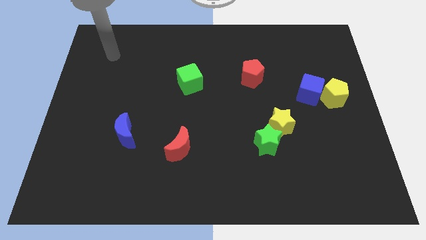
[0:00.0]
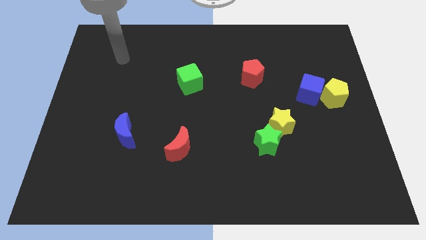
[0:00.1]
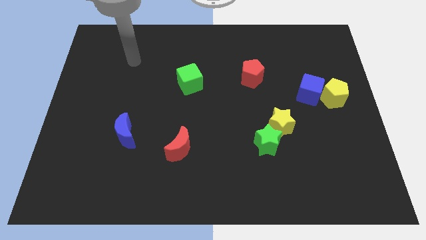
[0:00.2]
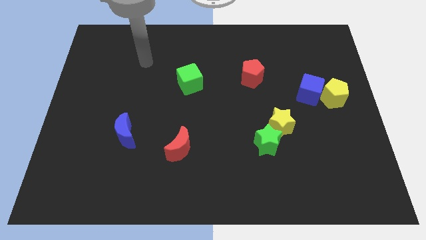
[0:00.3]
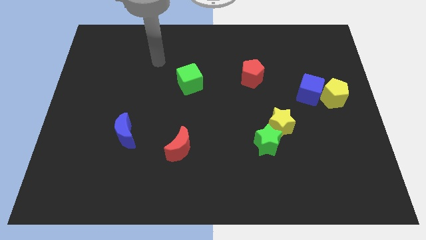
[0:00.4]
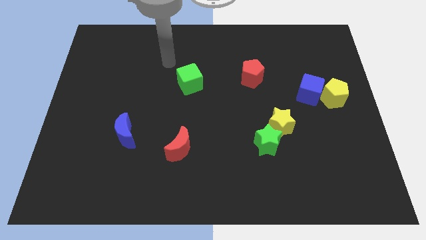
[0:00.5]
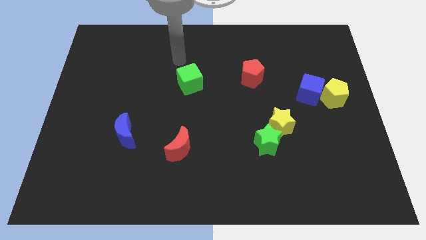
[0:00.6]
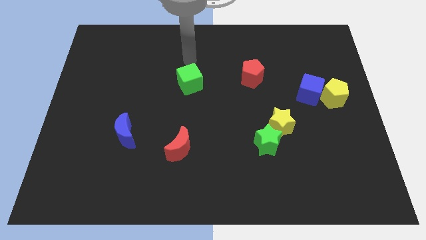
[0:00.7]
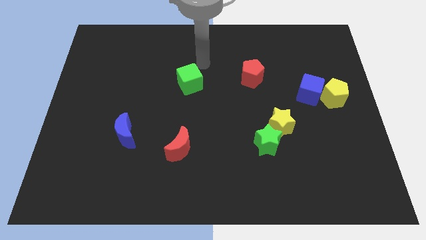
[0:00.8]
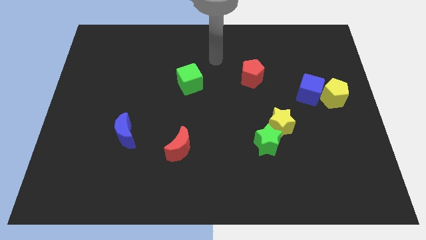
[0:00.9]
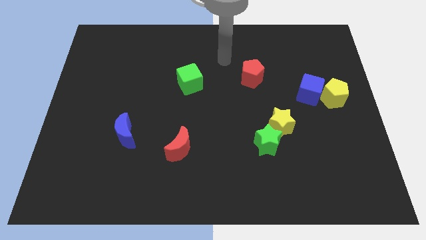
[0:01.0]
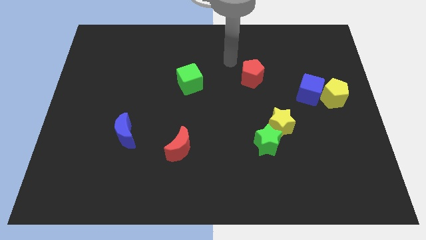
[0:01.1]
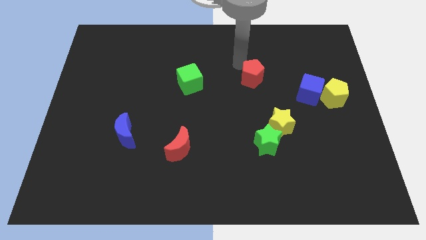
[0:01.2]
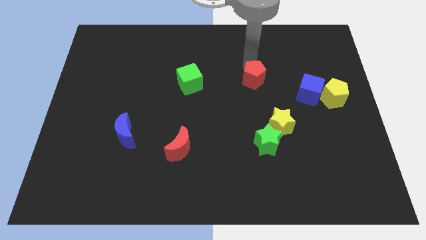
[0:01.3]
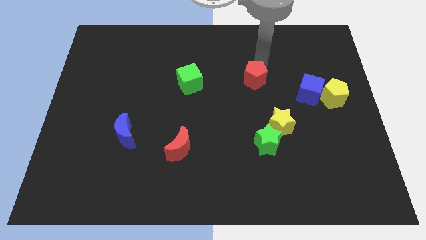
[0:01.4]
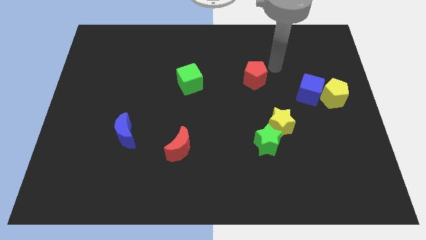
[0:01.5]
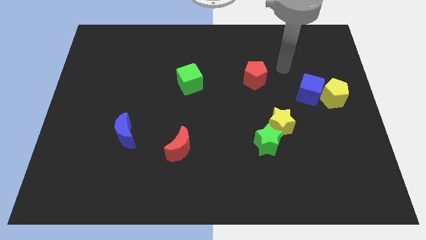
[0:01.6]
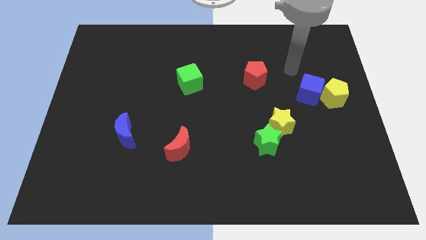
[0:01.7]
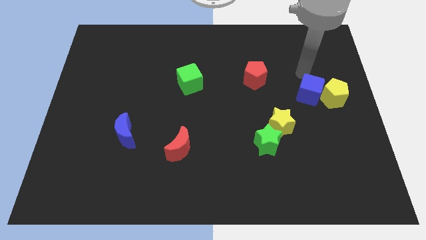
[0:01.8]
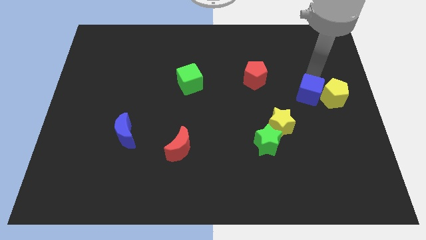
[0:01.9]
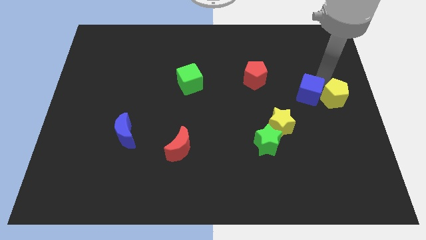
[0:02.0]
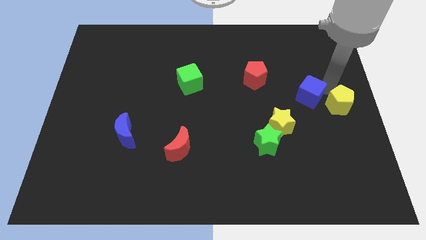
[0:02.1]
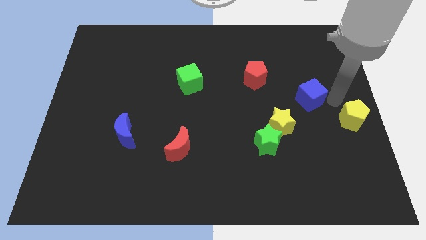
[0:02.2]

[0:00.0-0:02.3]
pull the blue cube apart from the yellow pentagon

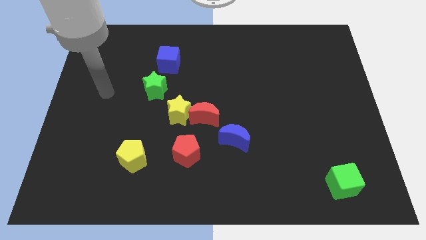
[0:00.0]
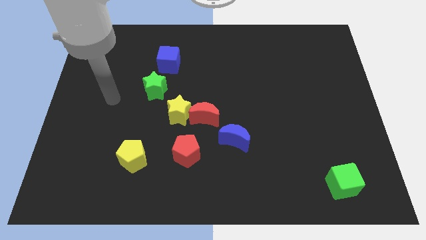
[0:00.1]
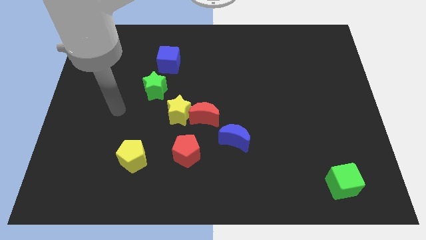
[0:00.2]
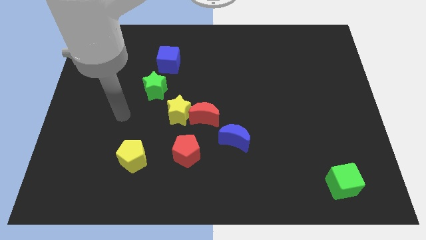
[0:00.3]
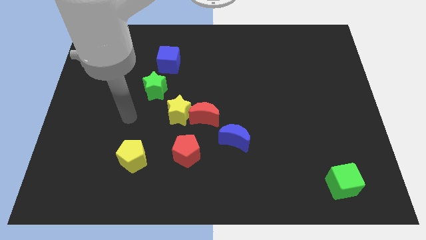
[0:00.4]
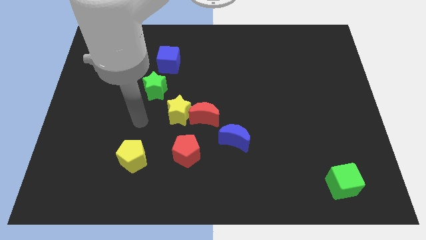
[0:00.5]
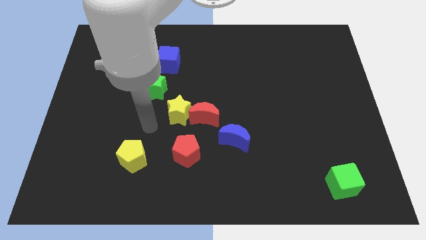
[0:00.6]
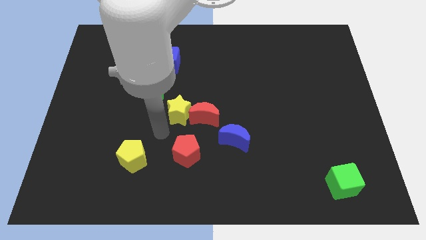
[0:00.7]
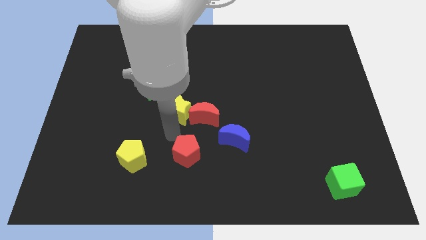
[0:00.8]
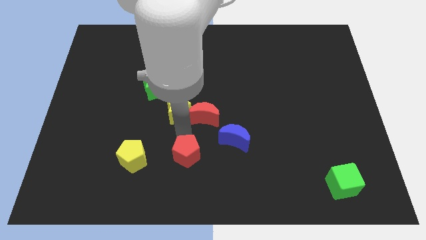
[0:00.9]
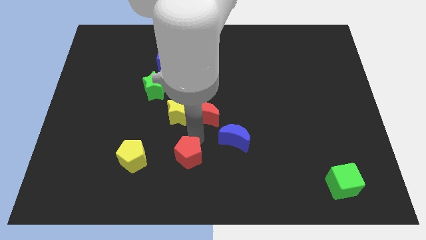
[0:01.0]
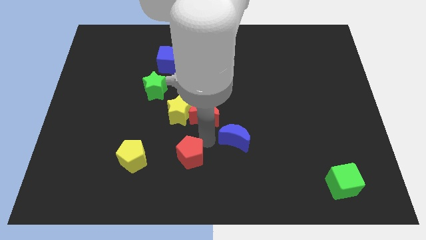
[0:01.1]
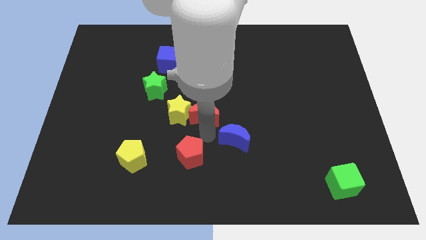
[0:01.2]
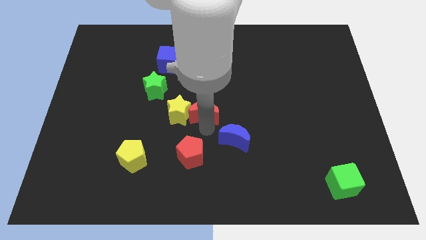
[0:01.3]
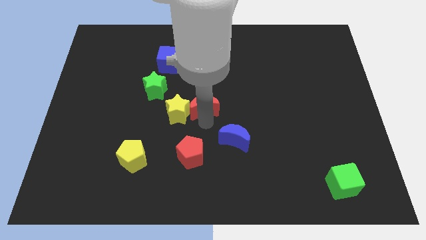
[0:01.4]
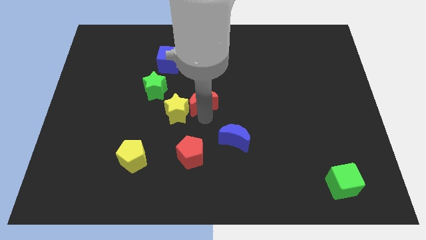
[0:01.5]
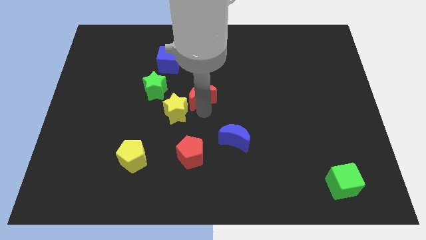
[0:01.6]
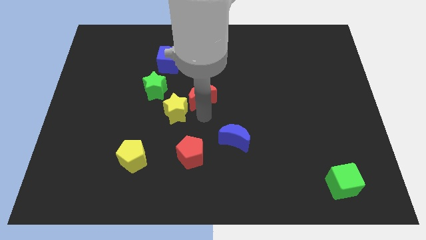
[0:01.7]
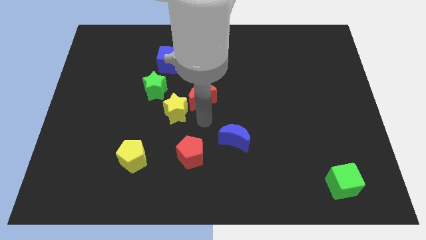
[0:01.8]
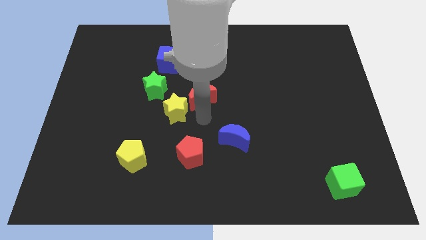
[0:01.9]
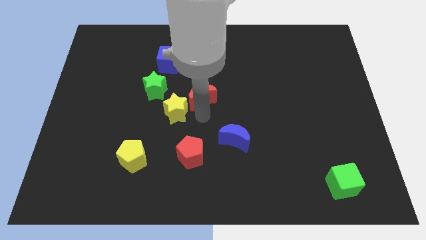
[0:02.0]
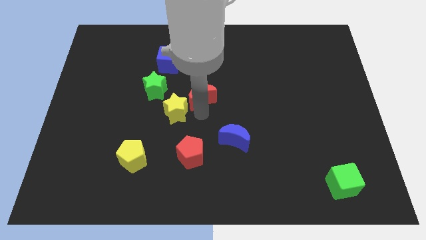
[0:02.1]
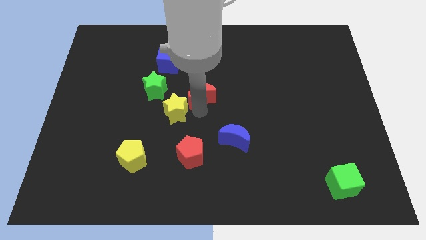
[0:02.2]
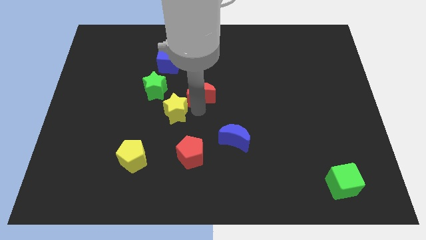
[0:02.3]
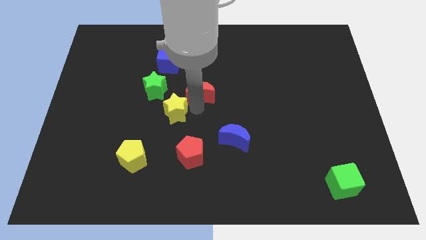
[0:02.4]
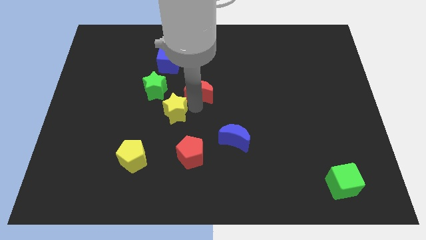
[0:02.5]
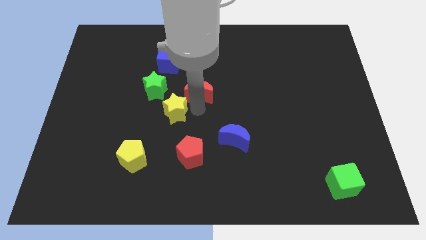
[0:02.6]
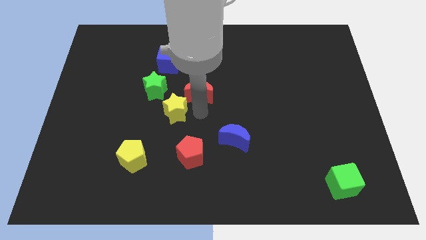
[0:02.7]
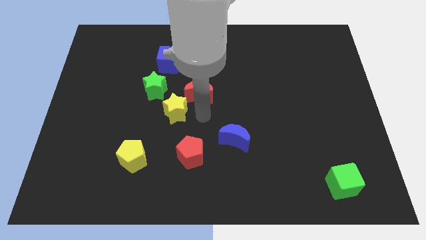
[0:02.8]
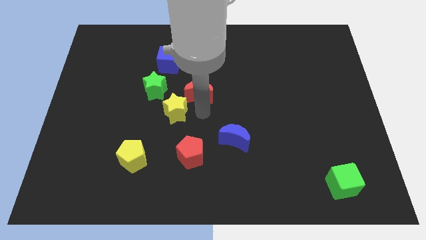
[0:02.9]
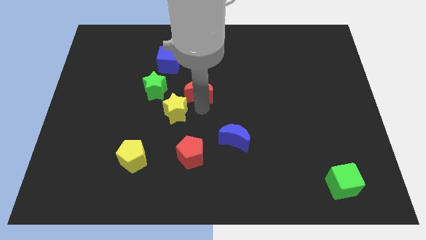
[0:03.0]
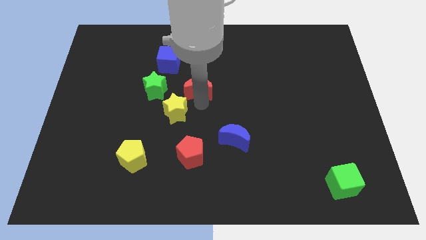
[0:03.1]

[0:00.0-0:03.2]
pull the red moon apart from the yellow star and blue moon

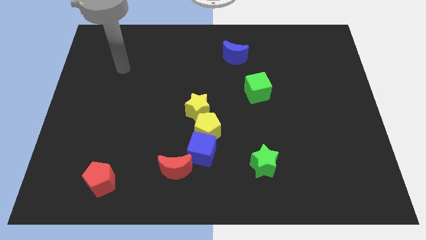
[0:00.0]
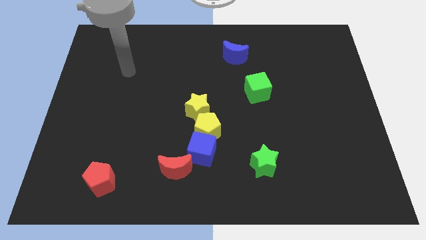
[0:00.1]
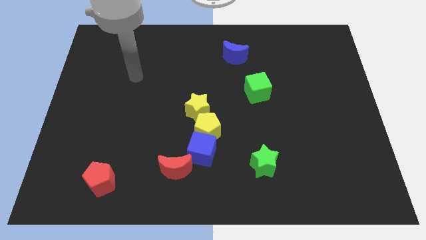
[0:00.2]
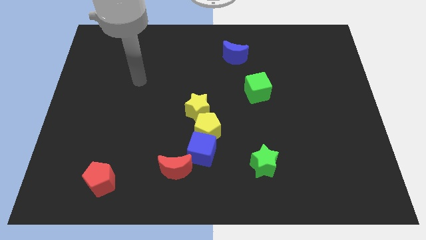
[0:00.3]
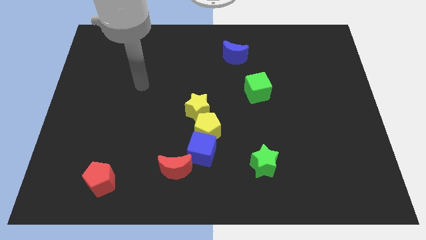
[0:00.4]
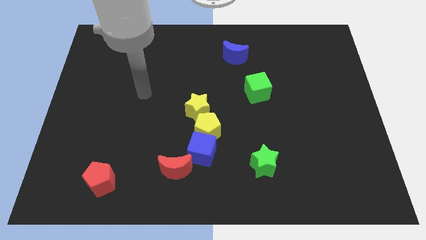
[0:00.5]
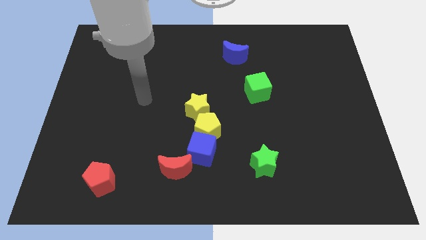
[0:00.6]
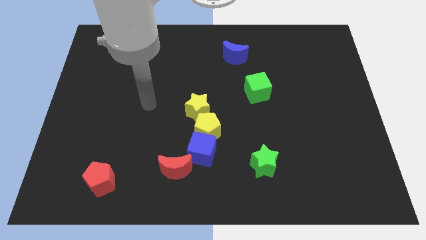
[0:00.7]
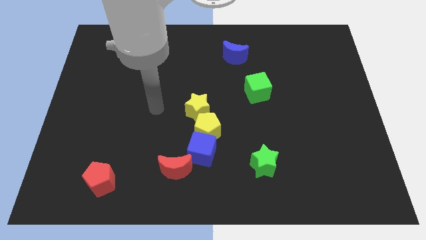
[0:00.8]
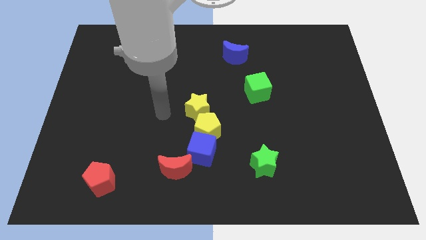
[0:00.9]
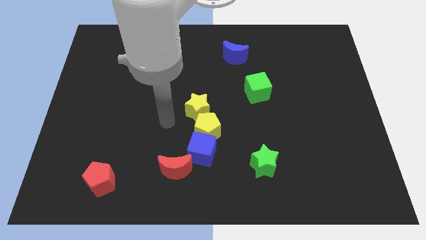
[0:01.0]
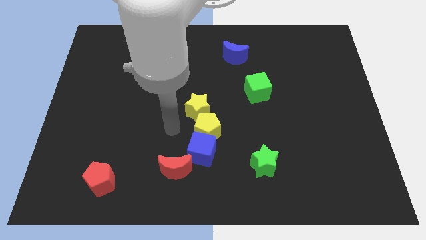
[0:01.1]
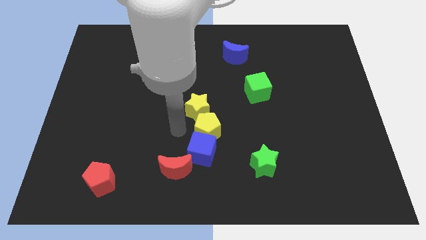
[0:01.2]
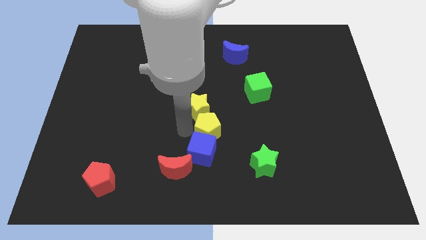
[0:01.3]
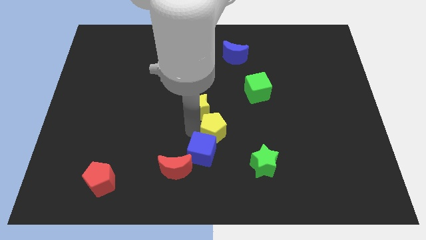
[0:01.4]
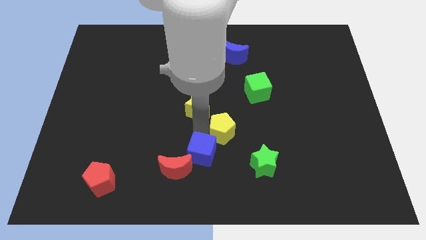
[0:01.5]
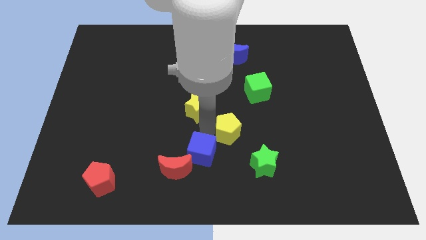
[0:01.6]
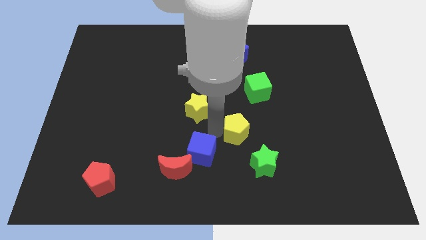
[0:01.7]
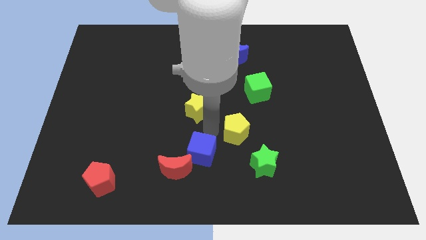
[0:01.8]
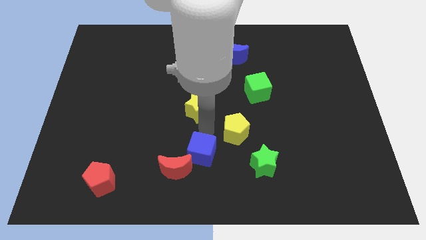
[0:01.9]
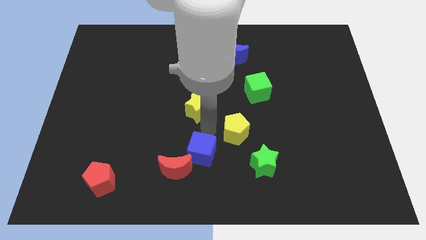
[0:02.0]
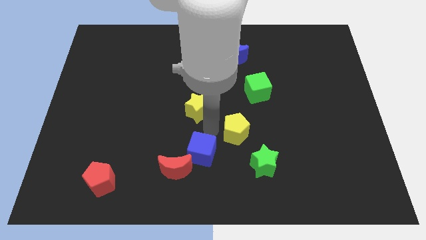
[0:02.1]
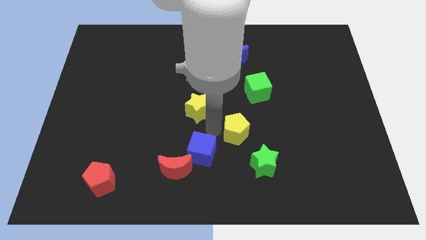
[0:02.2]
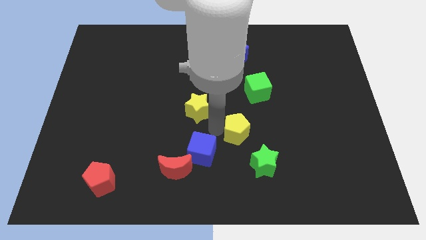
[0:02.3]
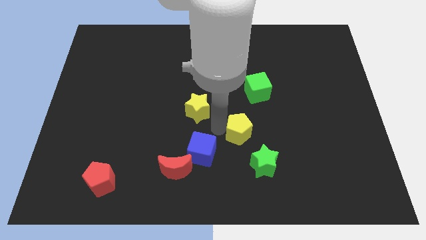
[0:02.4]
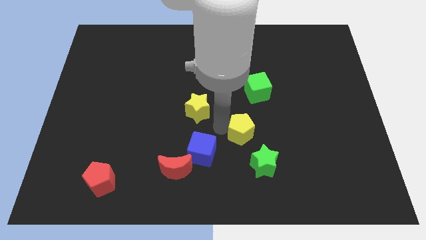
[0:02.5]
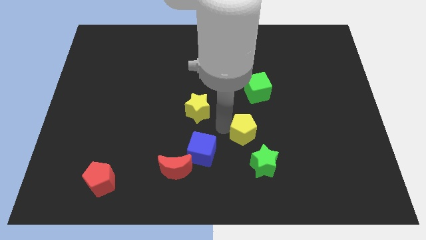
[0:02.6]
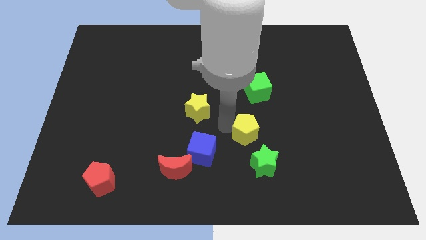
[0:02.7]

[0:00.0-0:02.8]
pull the yellow pentagon apart from the blue cube and yellow star

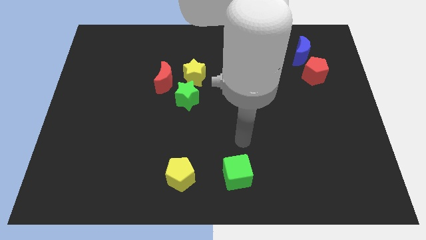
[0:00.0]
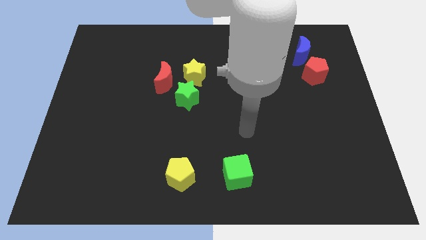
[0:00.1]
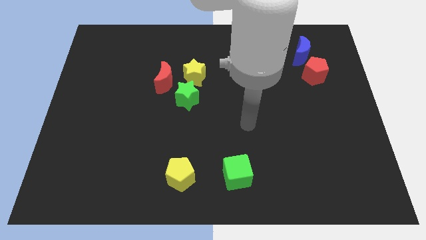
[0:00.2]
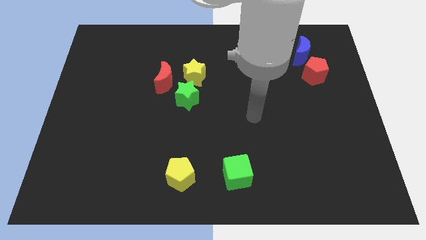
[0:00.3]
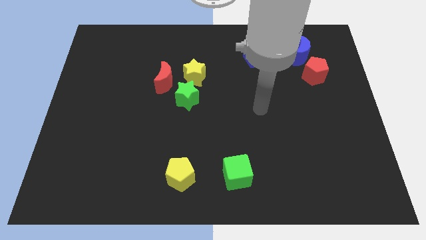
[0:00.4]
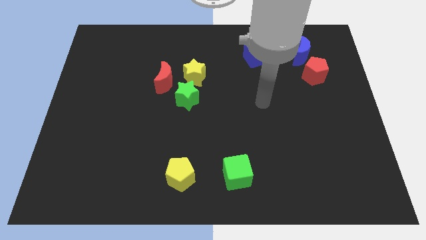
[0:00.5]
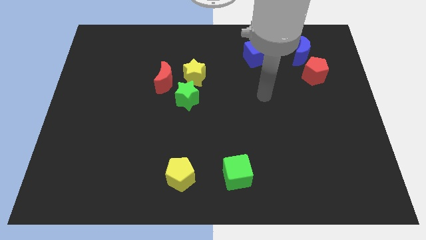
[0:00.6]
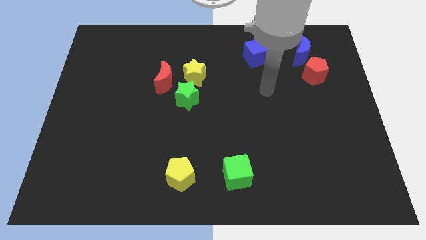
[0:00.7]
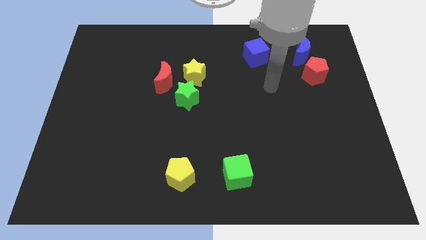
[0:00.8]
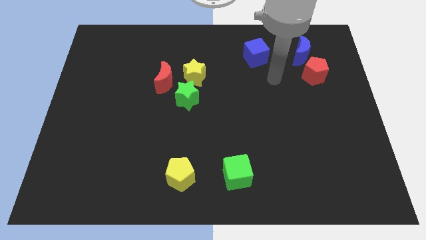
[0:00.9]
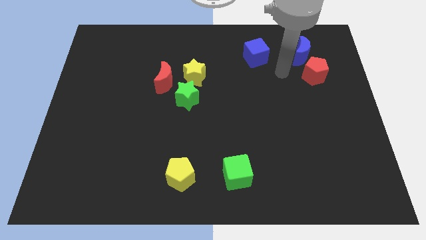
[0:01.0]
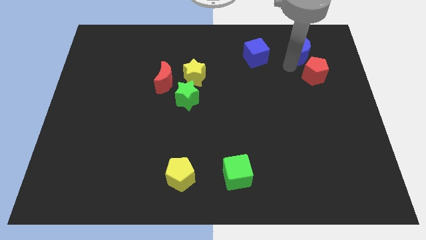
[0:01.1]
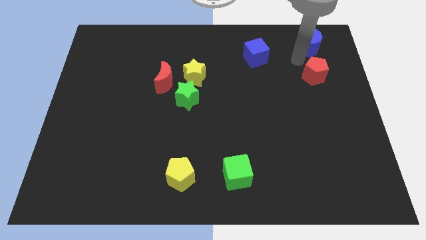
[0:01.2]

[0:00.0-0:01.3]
separate the red pentagon from the blue moon
